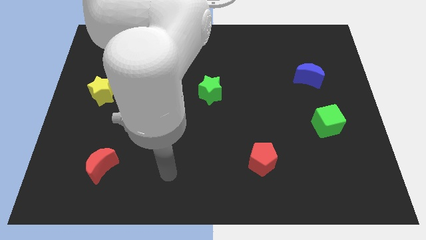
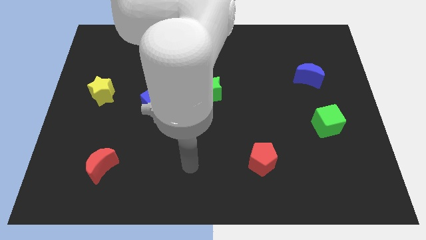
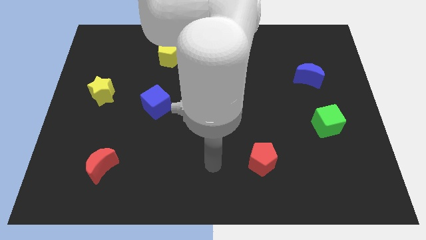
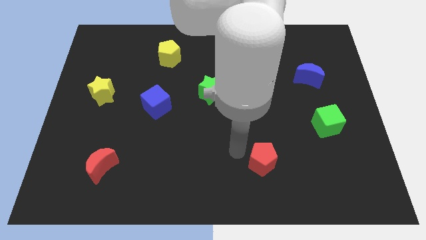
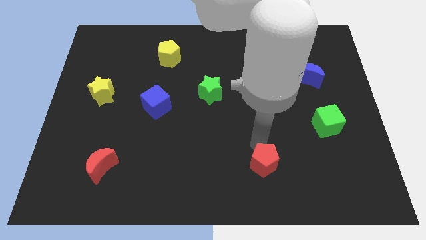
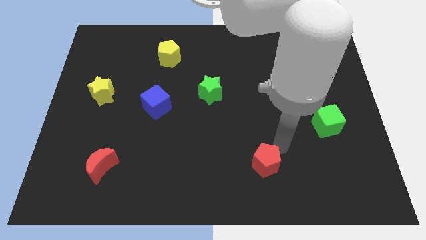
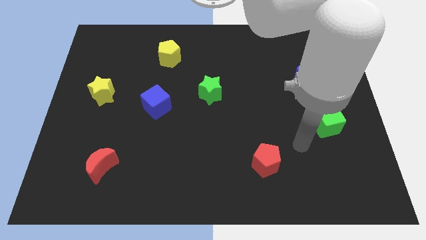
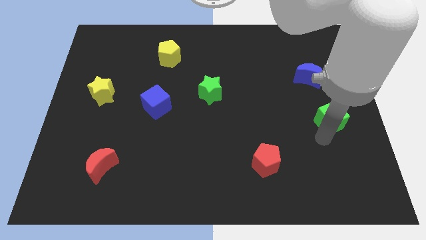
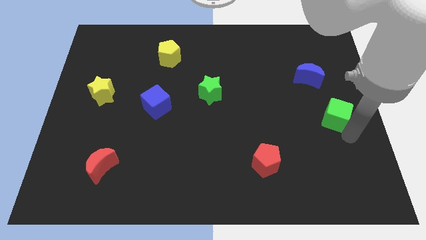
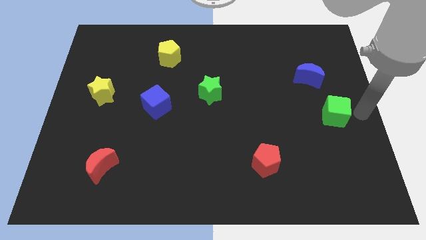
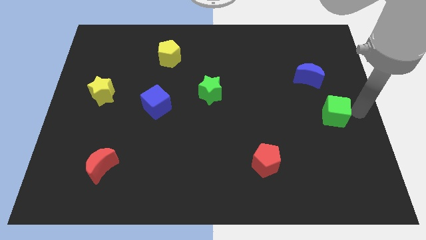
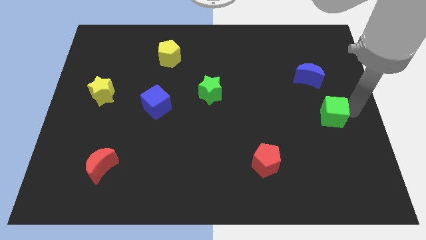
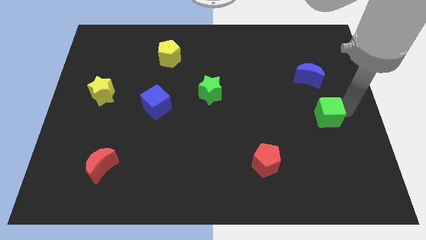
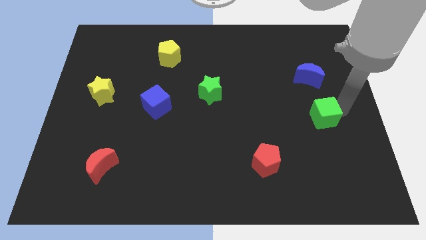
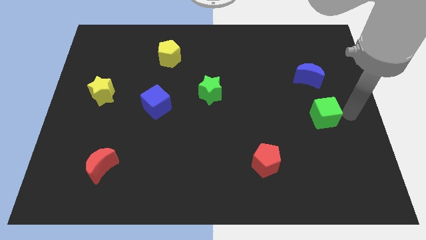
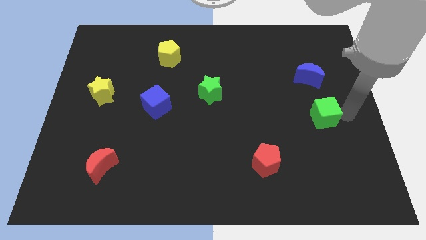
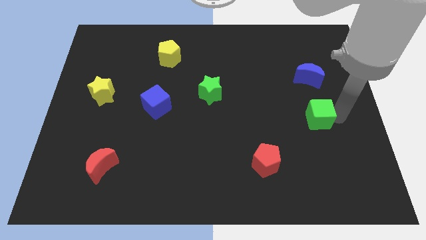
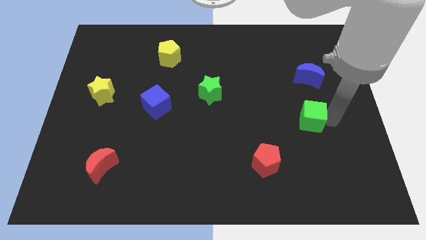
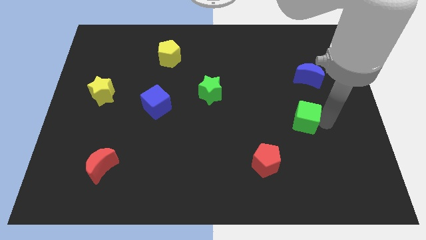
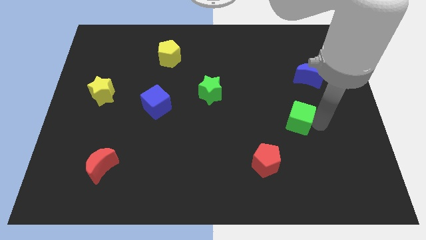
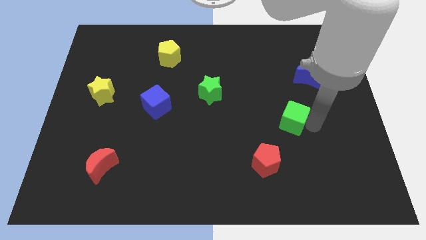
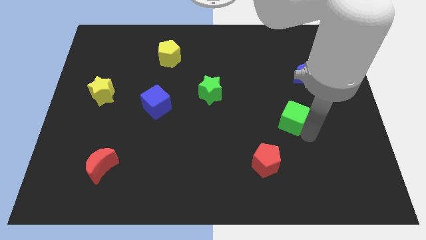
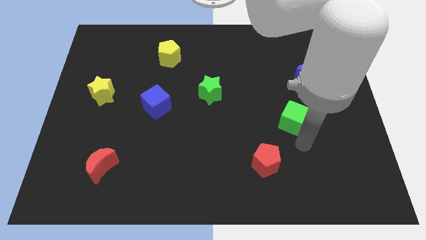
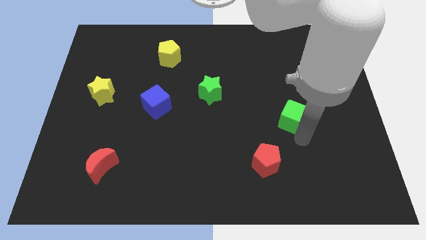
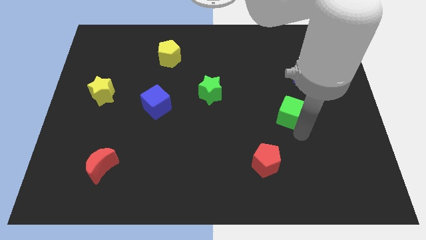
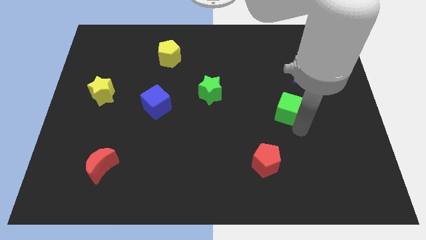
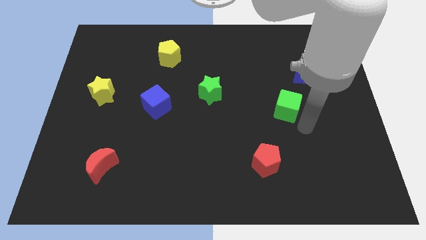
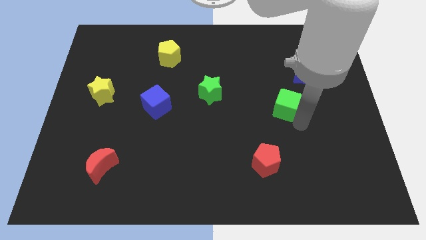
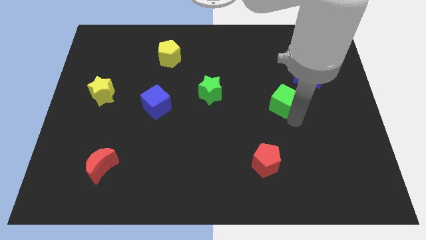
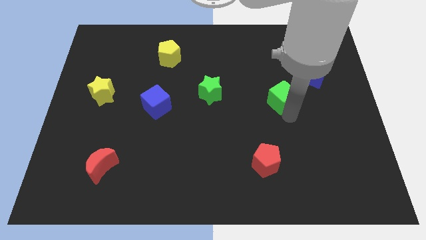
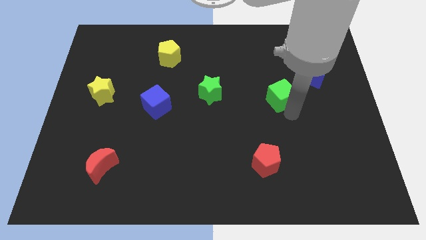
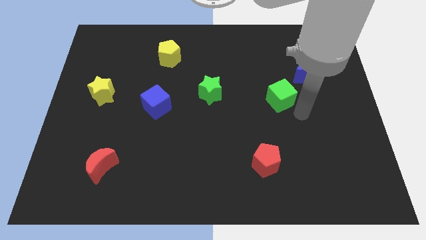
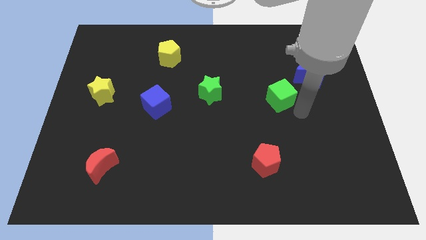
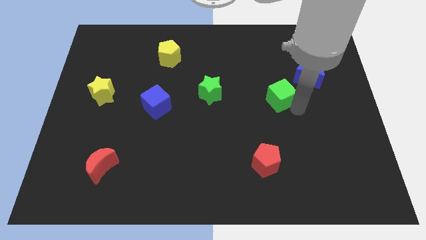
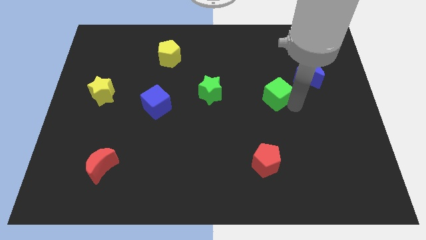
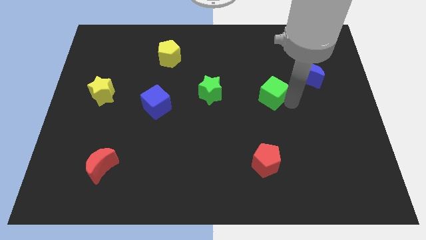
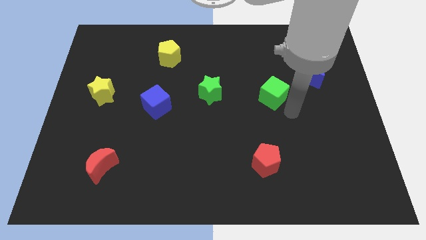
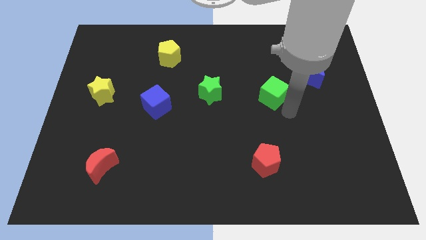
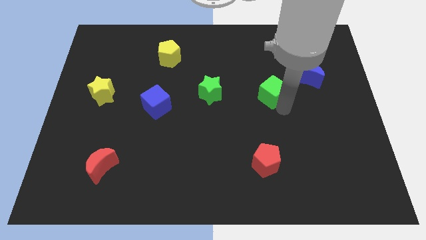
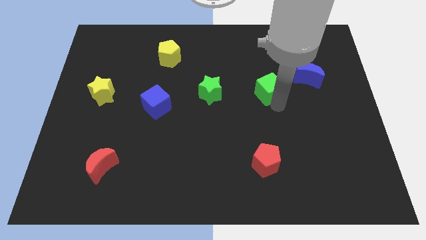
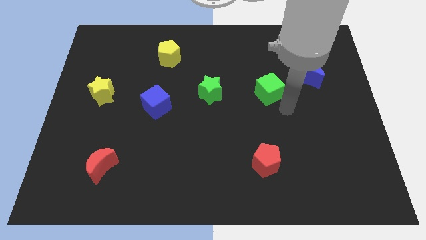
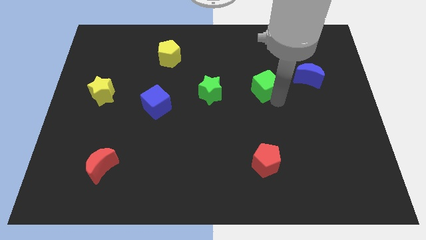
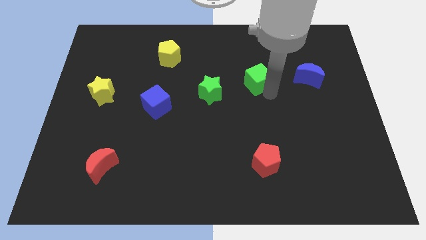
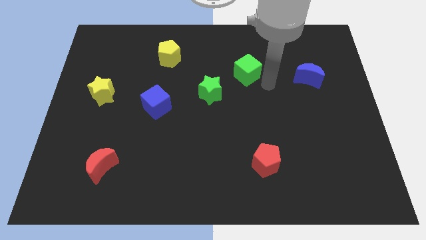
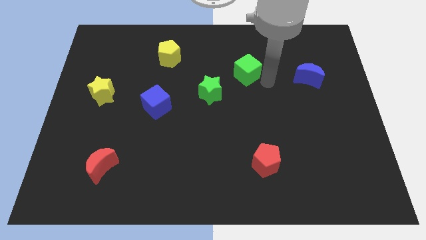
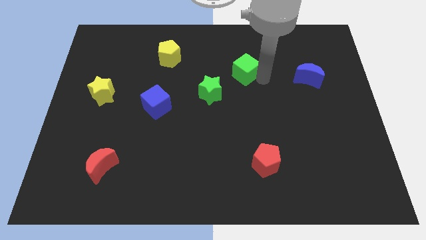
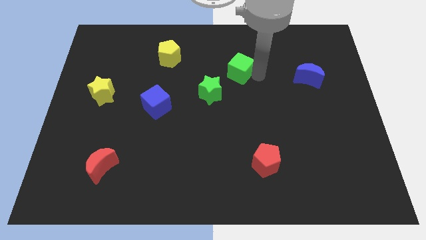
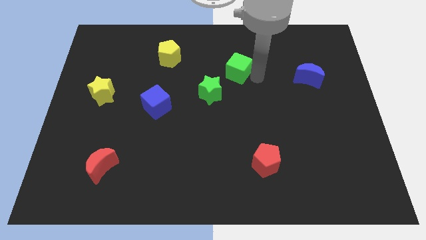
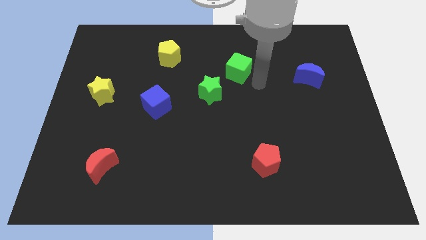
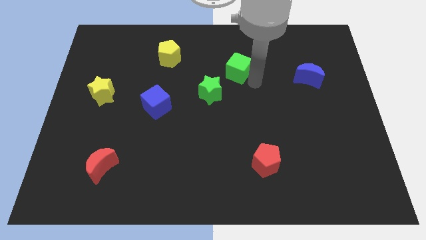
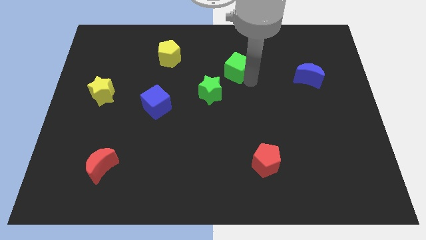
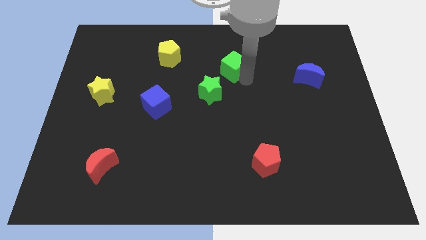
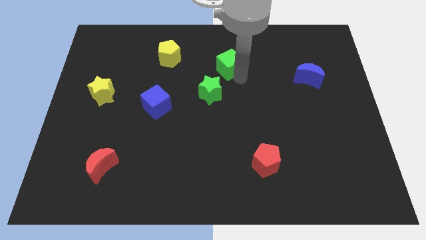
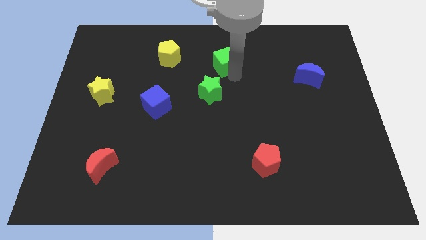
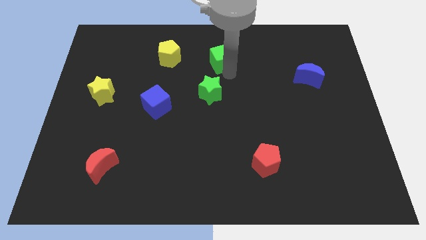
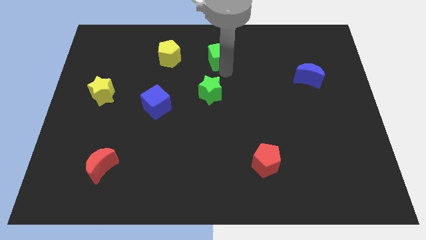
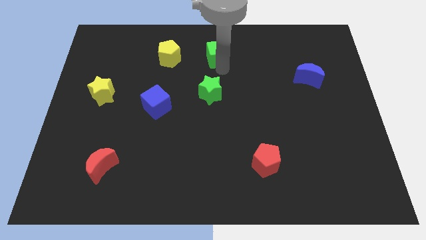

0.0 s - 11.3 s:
push the green cube to the top side

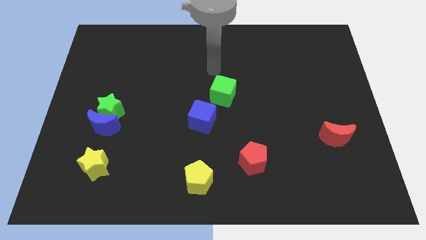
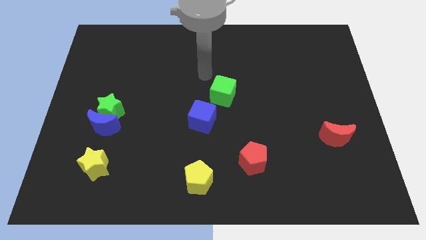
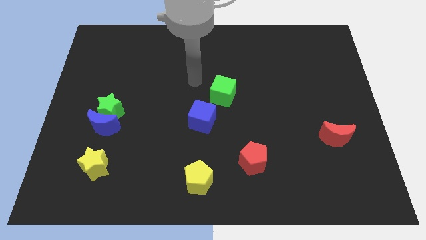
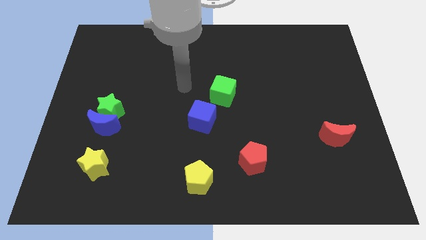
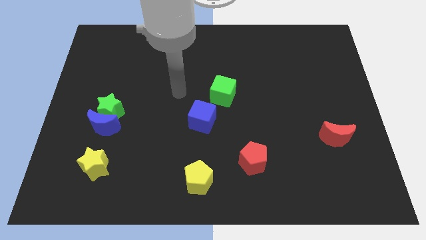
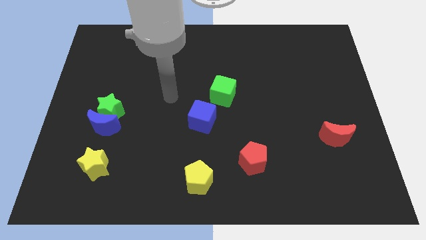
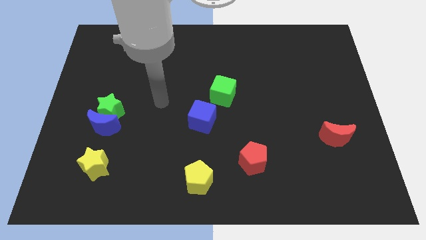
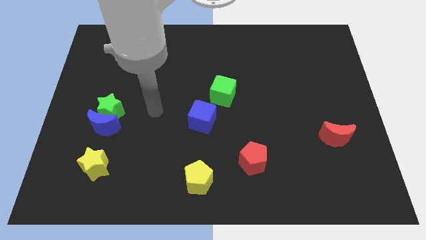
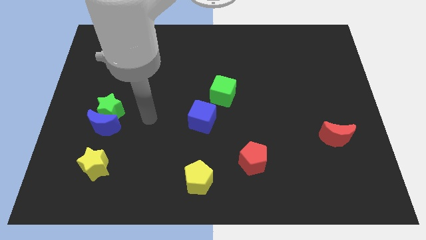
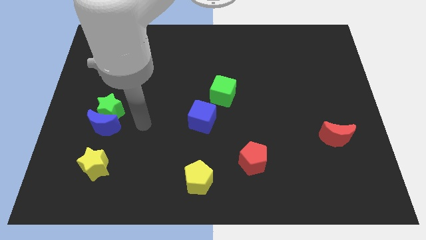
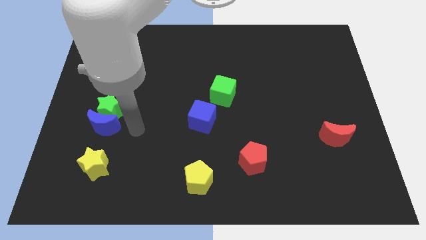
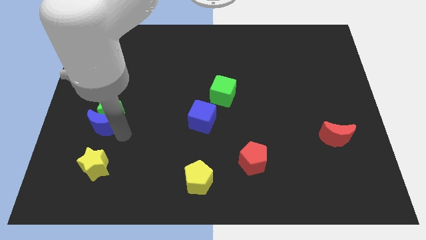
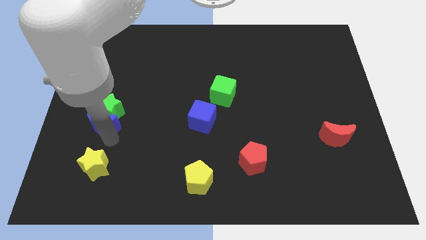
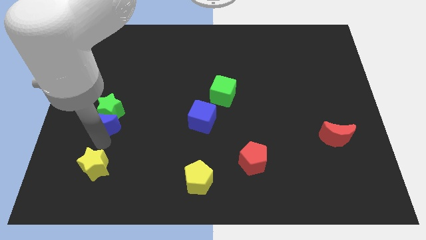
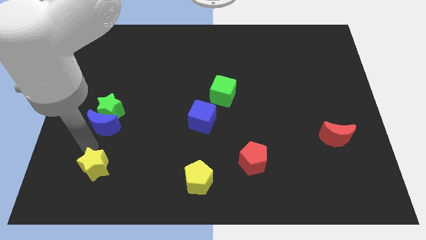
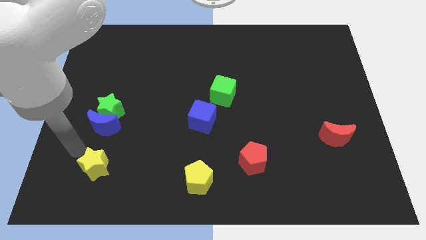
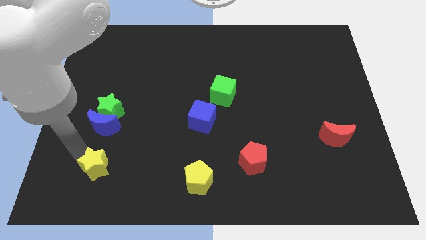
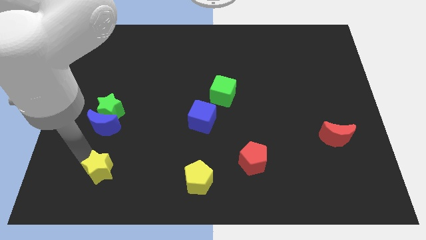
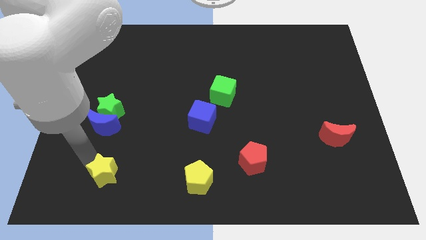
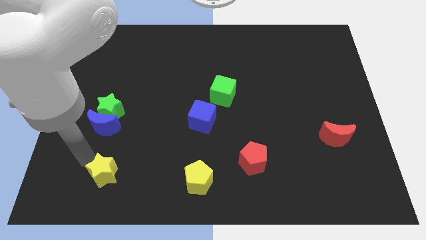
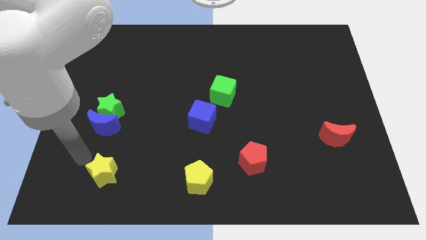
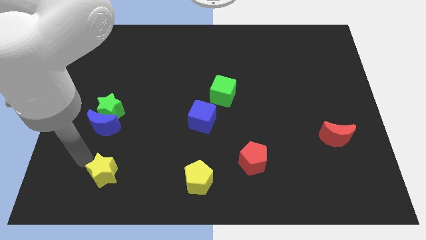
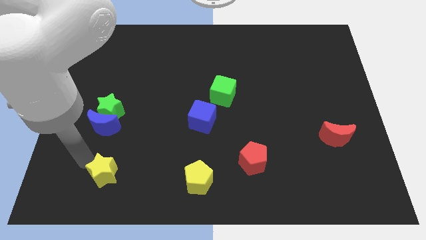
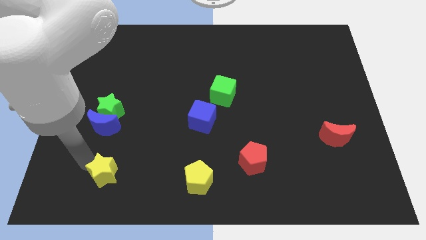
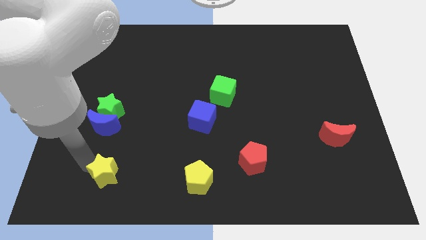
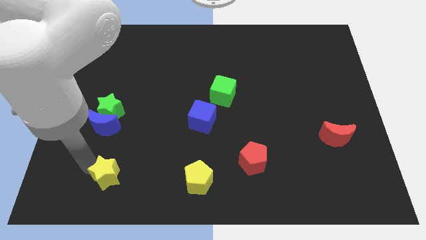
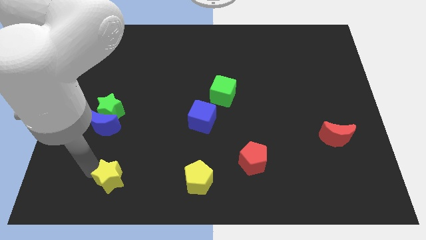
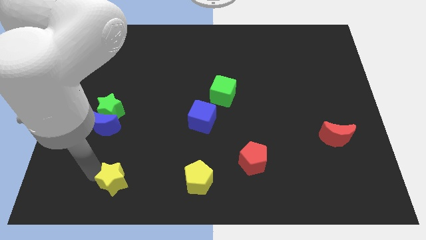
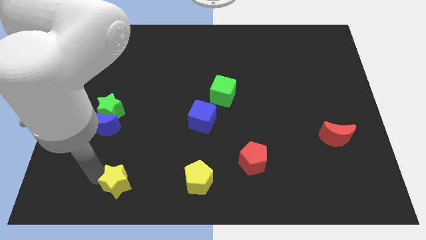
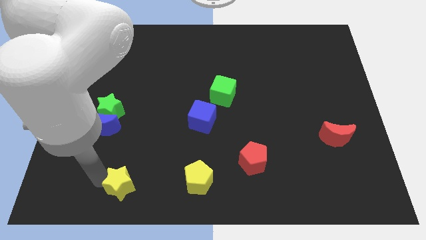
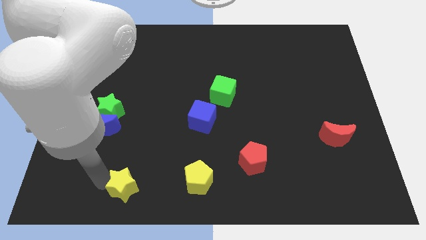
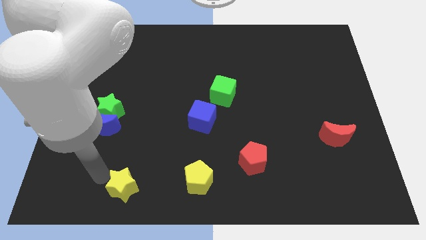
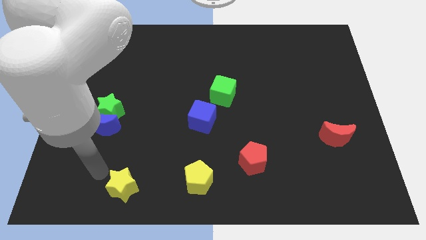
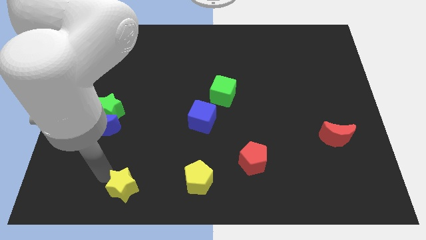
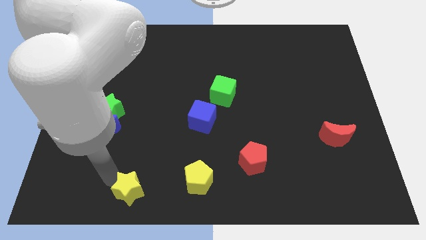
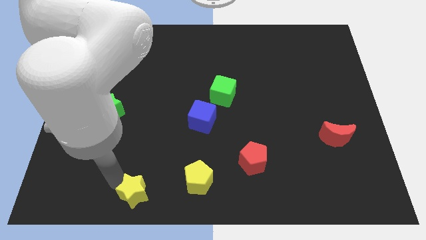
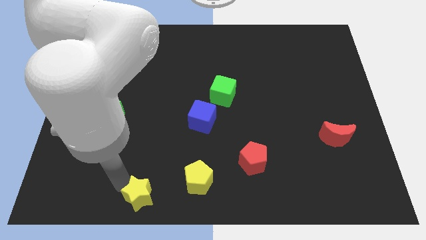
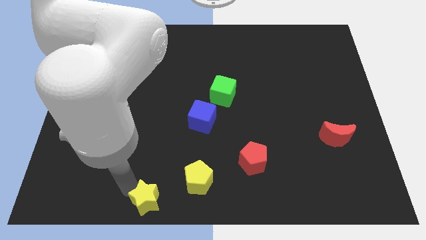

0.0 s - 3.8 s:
slide the yellow star to the bottom side
